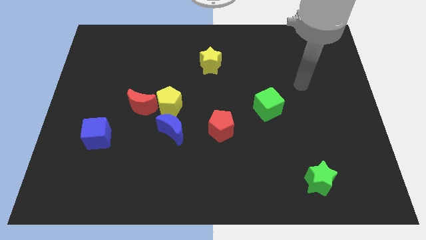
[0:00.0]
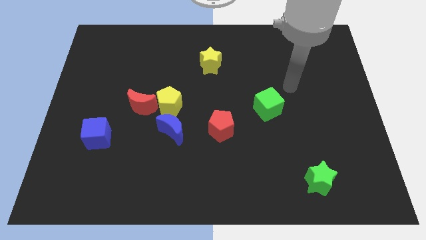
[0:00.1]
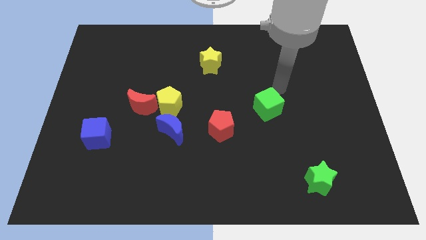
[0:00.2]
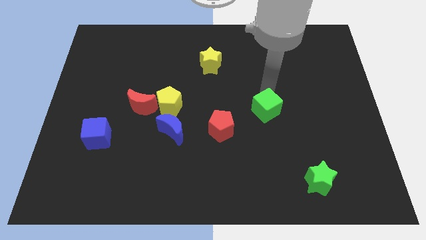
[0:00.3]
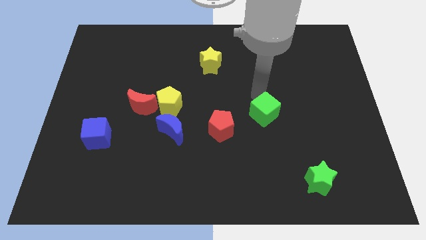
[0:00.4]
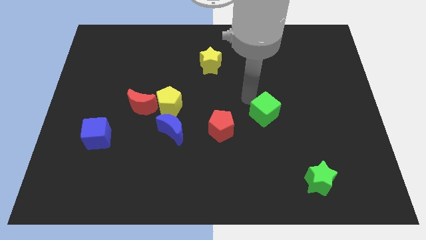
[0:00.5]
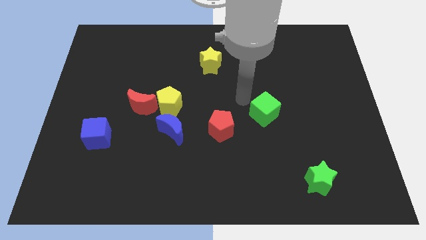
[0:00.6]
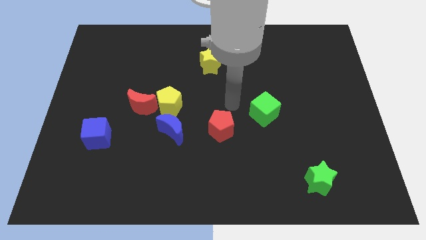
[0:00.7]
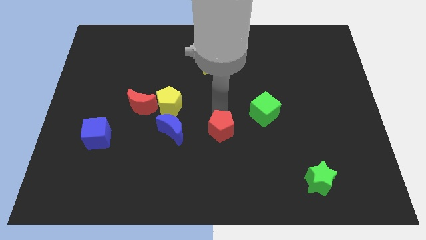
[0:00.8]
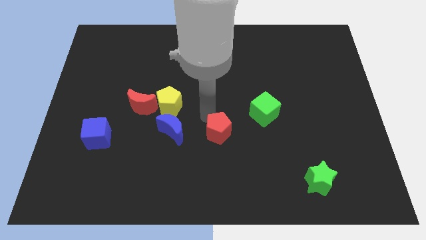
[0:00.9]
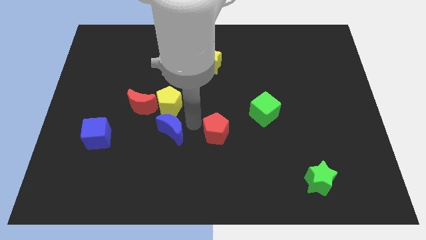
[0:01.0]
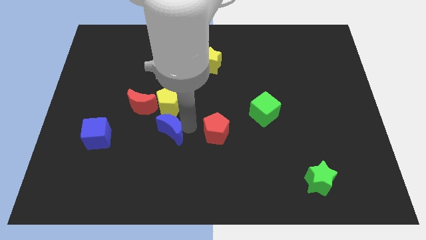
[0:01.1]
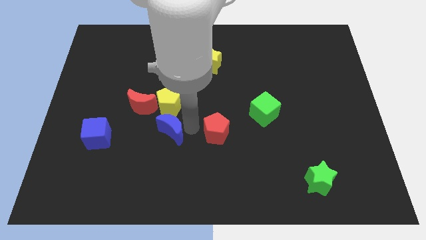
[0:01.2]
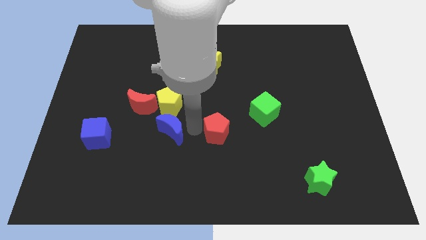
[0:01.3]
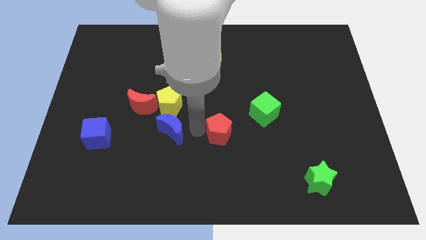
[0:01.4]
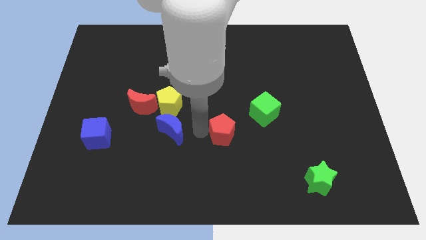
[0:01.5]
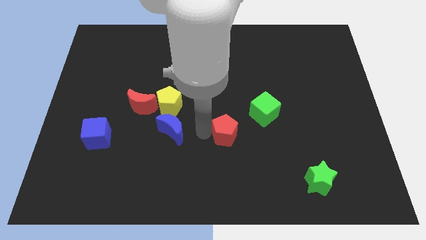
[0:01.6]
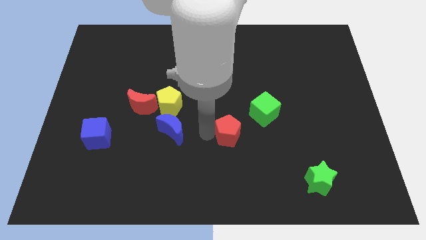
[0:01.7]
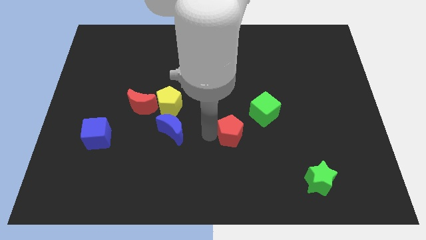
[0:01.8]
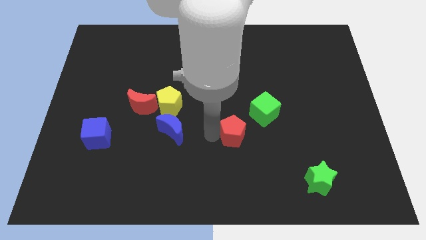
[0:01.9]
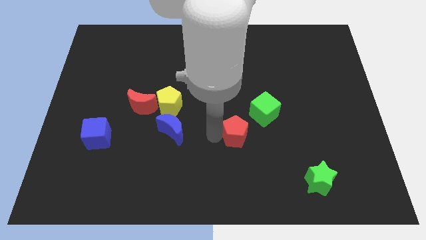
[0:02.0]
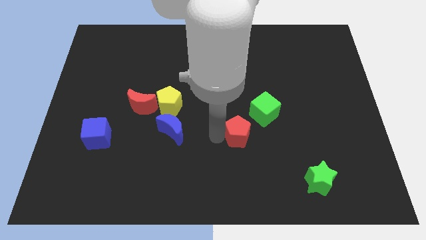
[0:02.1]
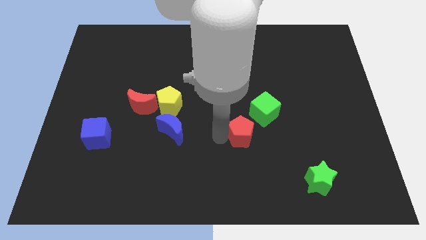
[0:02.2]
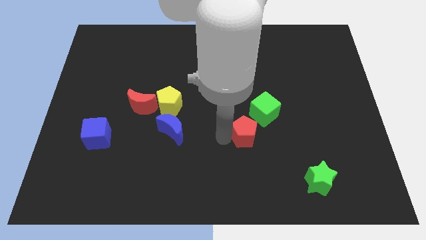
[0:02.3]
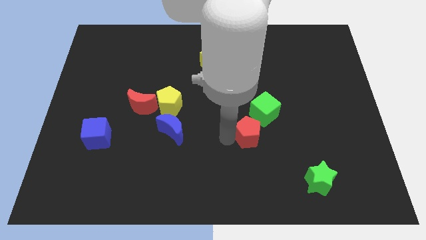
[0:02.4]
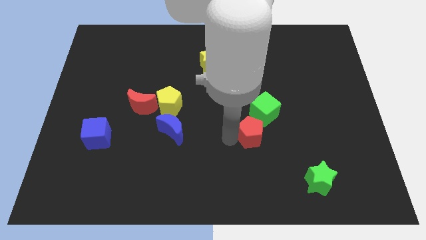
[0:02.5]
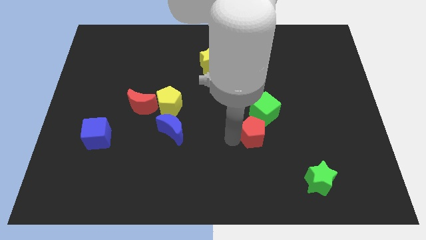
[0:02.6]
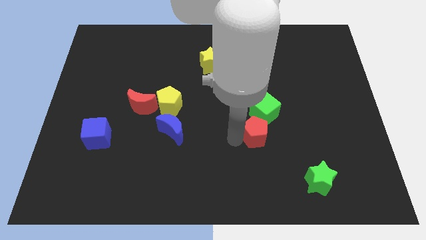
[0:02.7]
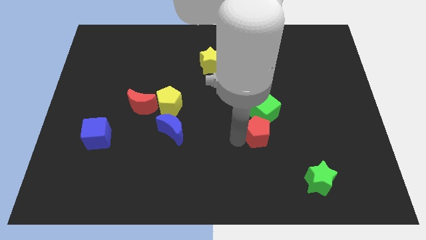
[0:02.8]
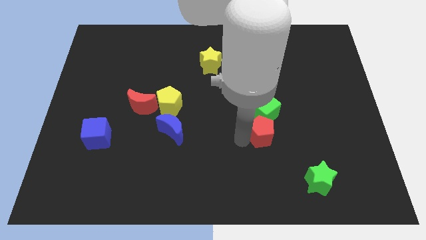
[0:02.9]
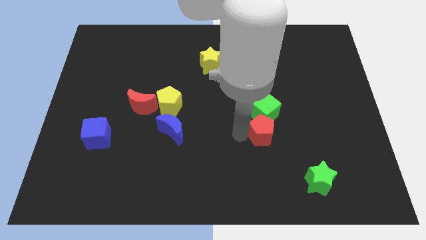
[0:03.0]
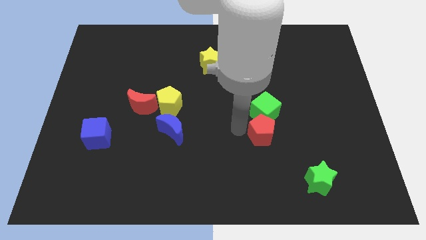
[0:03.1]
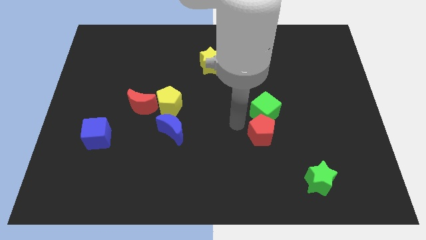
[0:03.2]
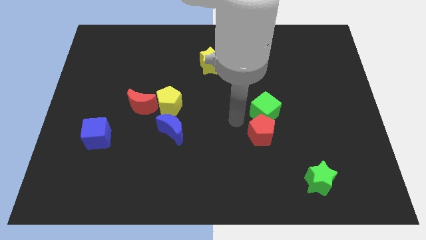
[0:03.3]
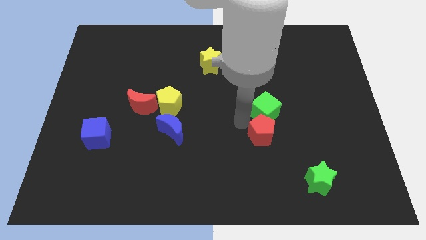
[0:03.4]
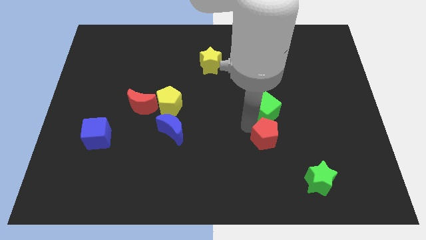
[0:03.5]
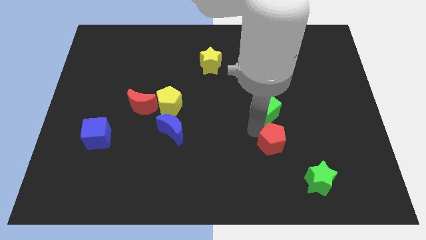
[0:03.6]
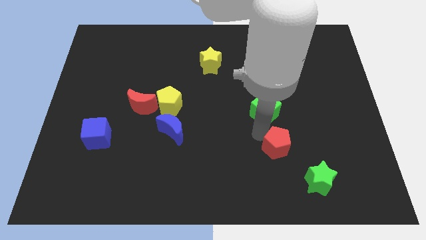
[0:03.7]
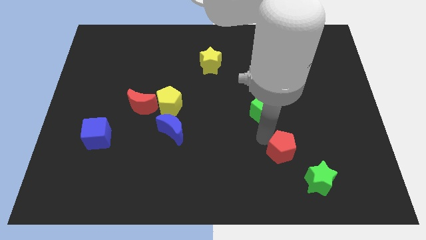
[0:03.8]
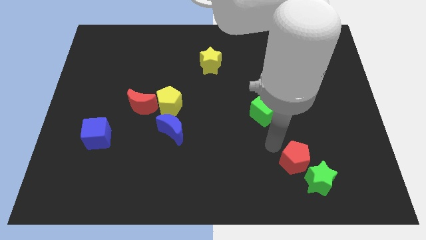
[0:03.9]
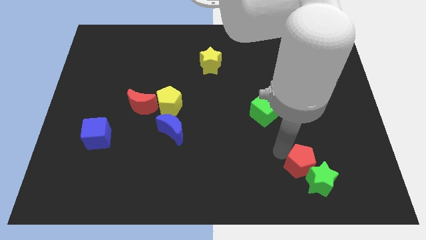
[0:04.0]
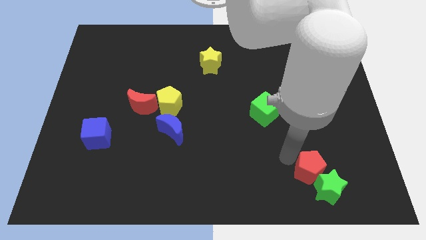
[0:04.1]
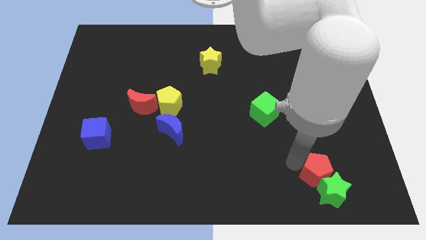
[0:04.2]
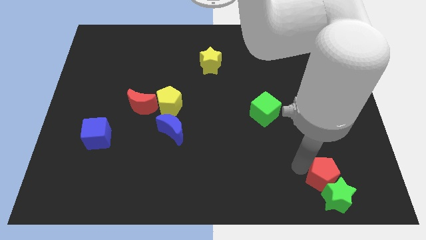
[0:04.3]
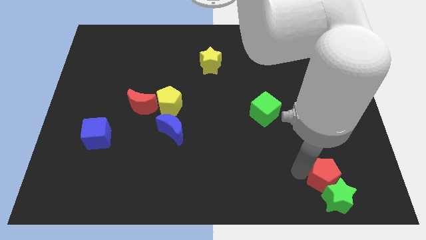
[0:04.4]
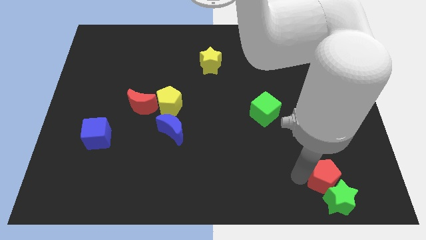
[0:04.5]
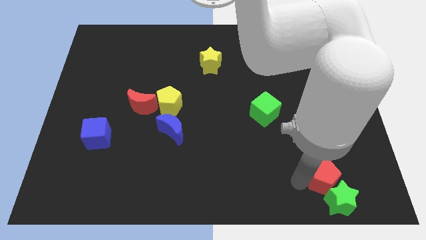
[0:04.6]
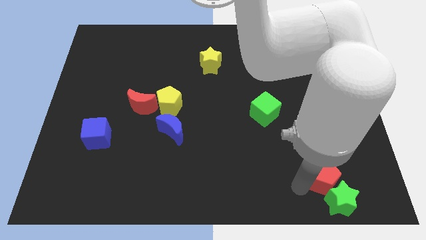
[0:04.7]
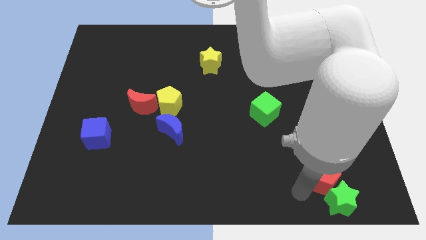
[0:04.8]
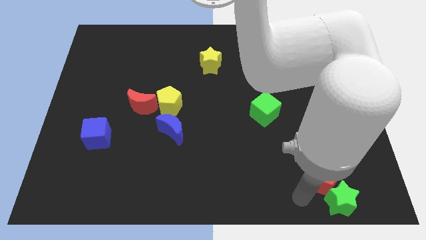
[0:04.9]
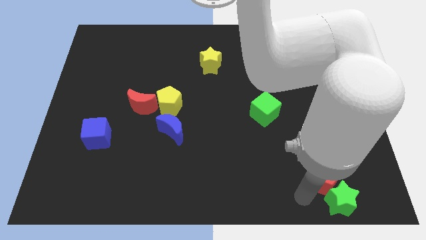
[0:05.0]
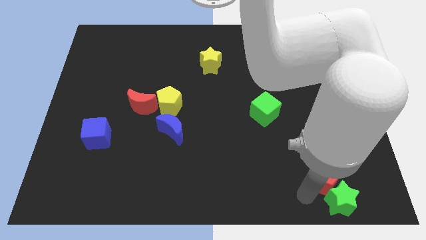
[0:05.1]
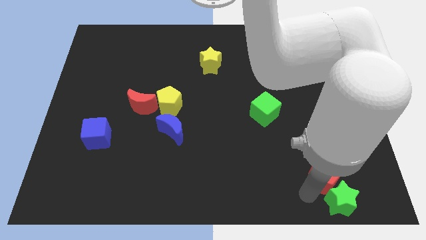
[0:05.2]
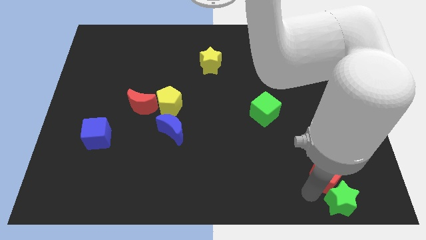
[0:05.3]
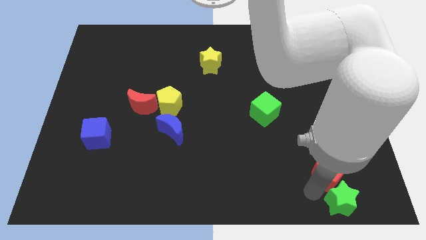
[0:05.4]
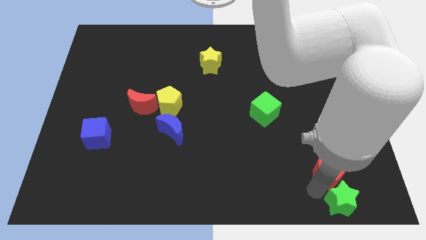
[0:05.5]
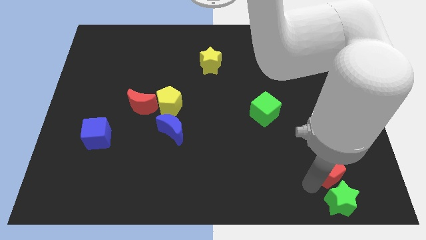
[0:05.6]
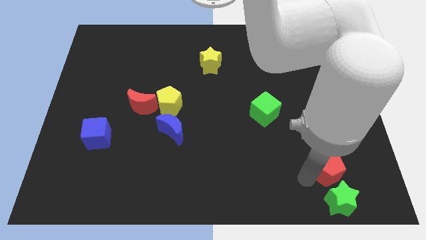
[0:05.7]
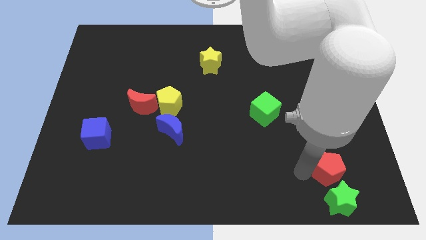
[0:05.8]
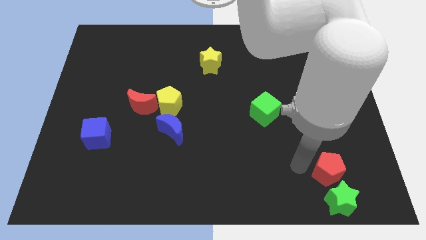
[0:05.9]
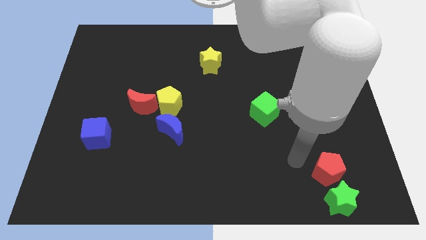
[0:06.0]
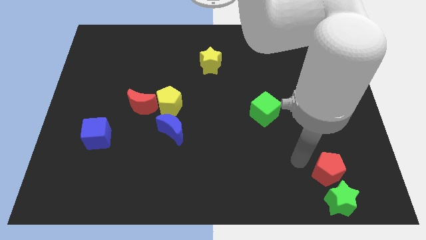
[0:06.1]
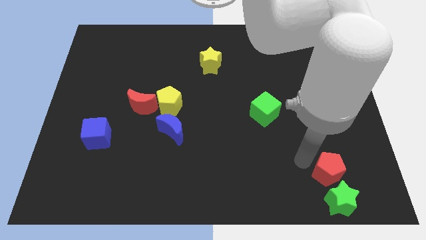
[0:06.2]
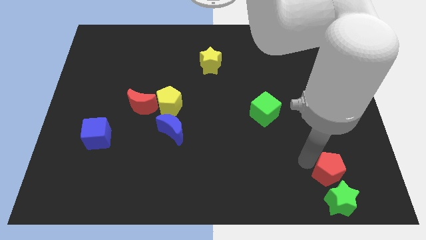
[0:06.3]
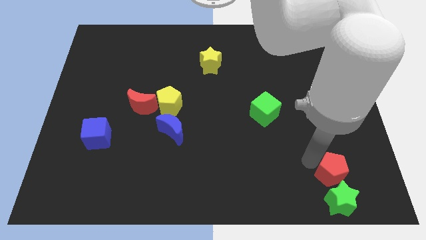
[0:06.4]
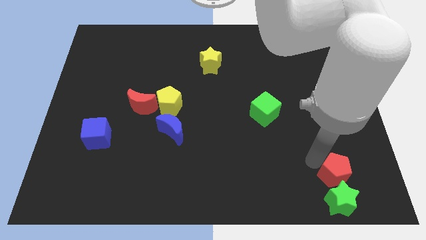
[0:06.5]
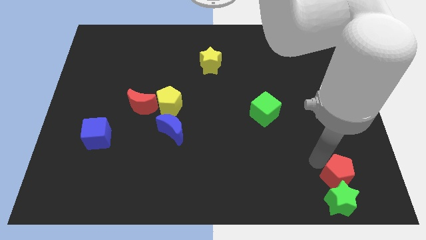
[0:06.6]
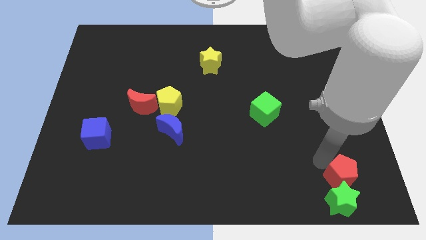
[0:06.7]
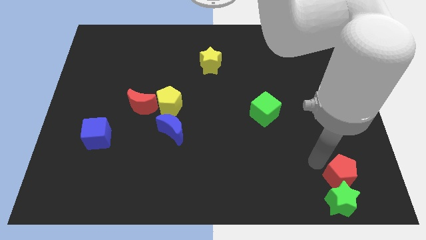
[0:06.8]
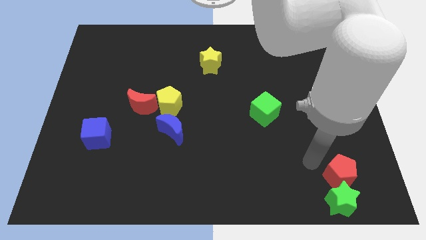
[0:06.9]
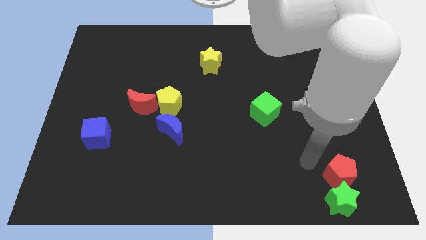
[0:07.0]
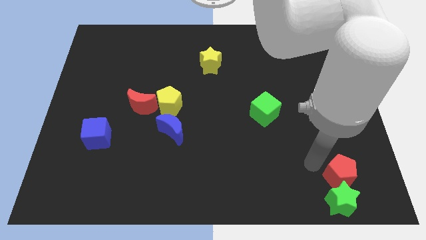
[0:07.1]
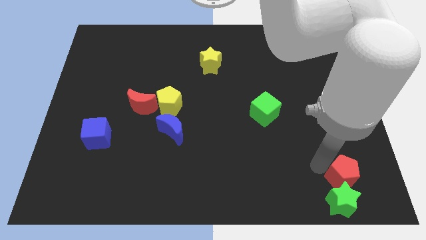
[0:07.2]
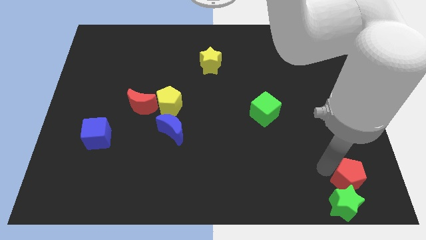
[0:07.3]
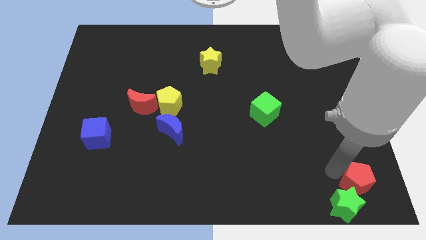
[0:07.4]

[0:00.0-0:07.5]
push the red pentagon to the bottom right of the board
